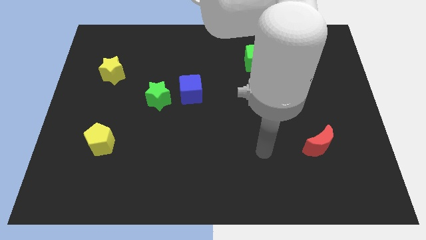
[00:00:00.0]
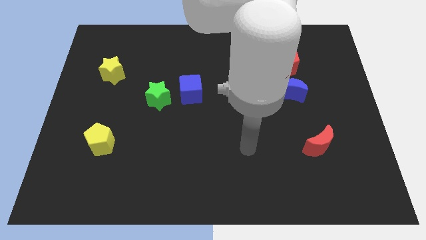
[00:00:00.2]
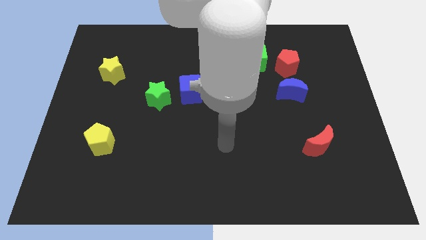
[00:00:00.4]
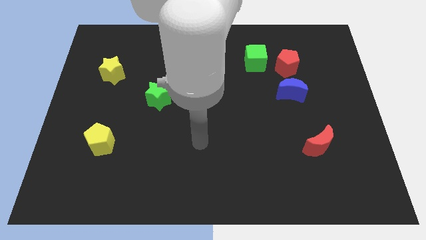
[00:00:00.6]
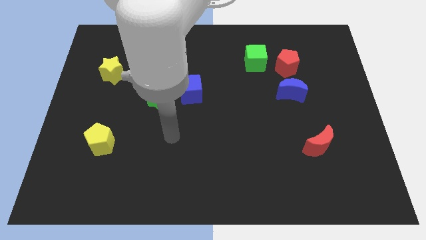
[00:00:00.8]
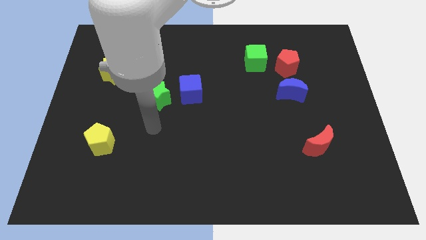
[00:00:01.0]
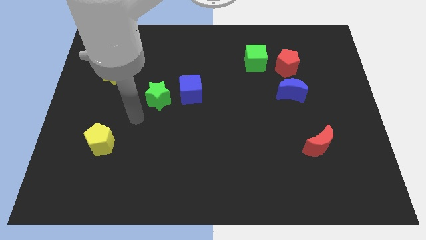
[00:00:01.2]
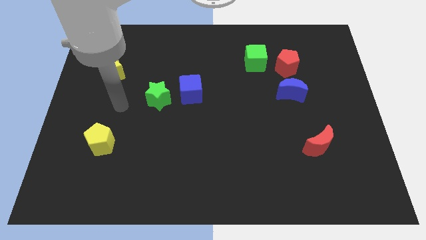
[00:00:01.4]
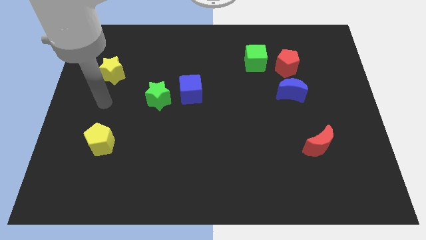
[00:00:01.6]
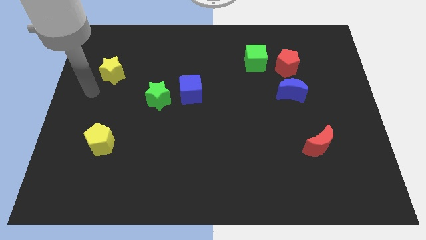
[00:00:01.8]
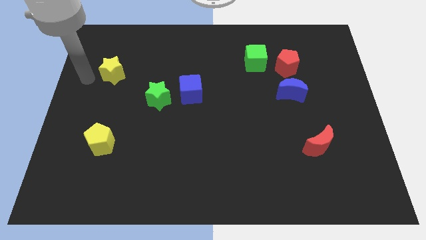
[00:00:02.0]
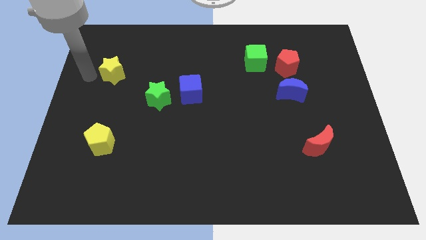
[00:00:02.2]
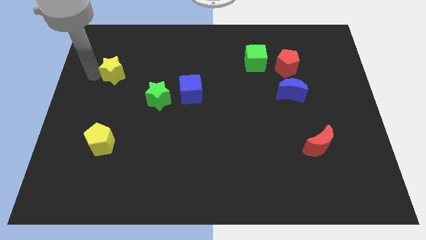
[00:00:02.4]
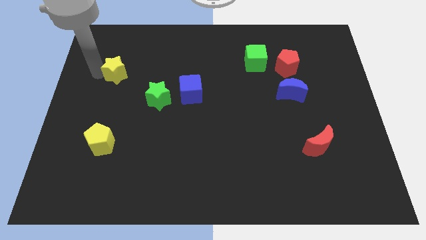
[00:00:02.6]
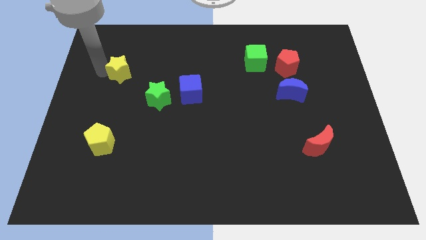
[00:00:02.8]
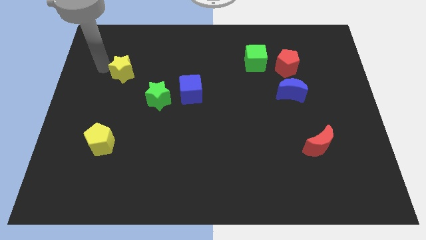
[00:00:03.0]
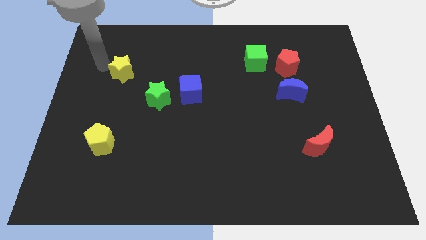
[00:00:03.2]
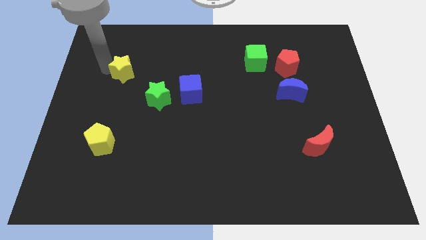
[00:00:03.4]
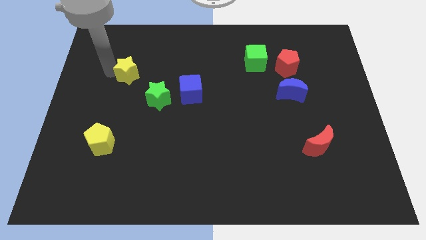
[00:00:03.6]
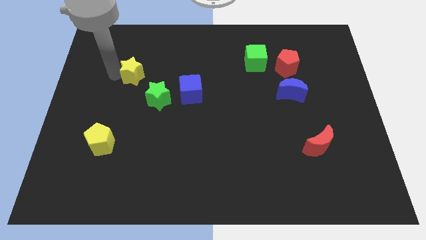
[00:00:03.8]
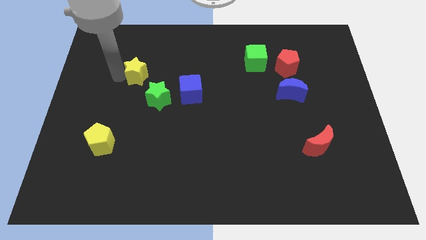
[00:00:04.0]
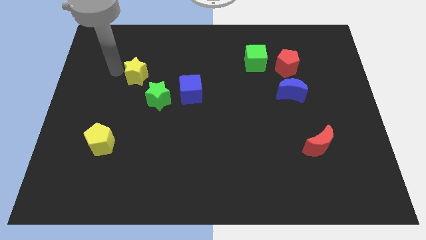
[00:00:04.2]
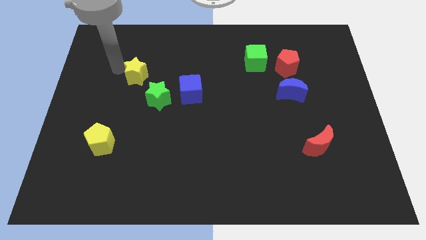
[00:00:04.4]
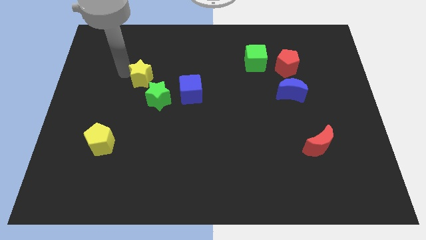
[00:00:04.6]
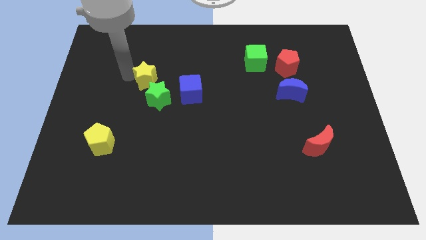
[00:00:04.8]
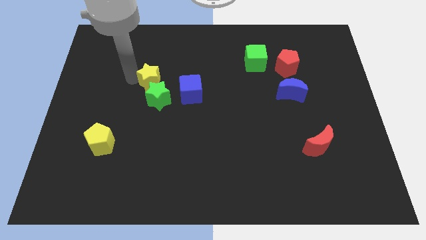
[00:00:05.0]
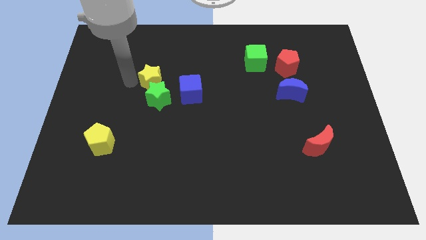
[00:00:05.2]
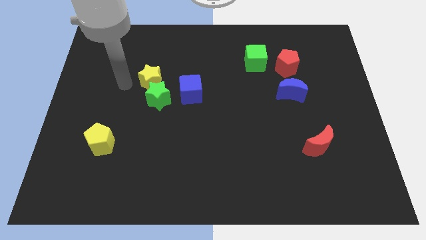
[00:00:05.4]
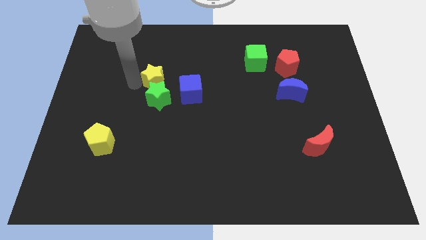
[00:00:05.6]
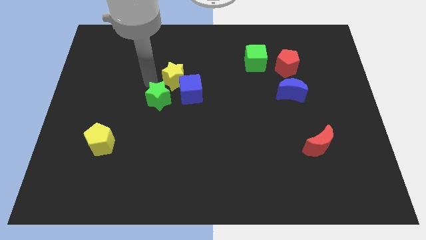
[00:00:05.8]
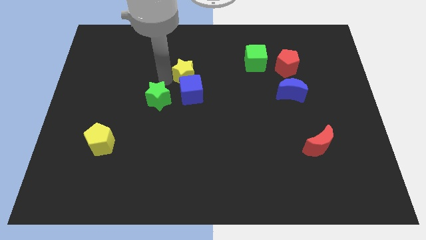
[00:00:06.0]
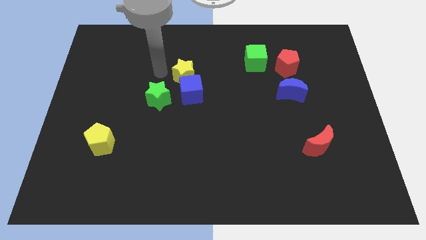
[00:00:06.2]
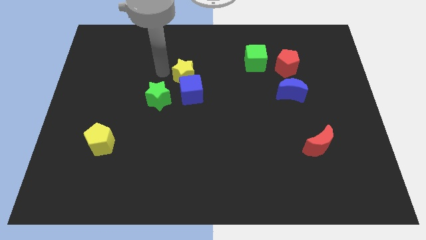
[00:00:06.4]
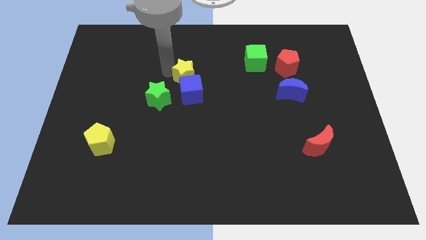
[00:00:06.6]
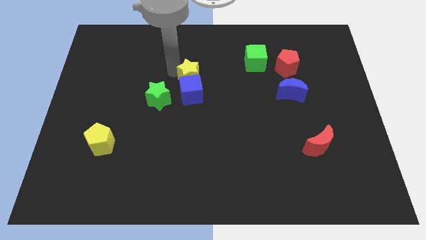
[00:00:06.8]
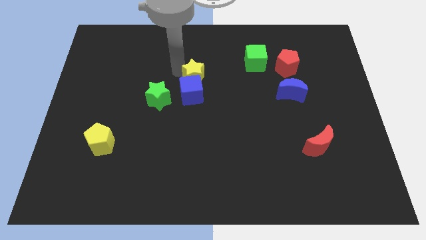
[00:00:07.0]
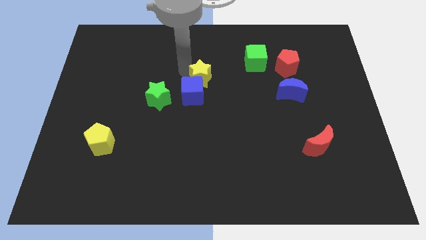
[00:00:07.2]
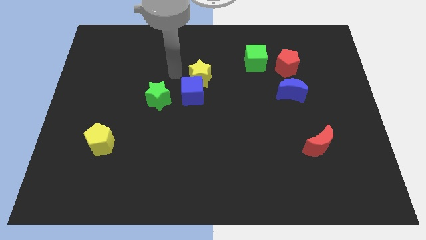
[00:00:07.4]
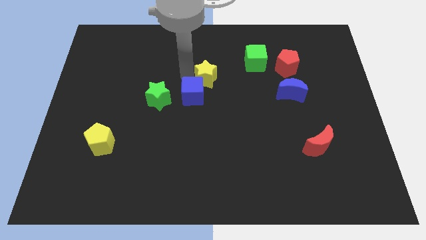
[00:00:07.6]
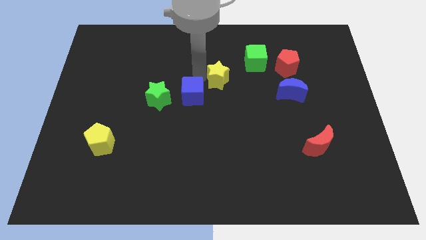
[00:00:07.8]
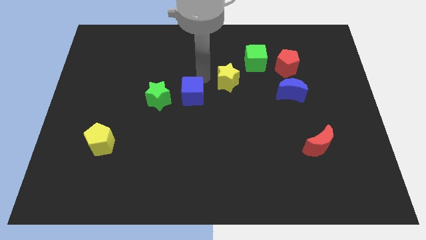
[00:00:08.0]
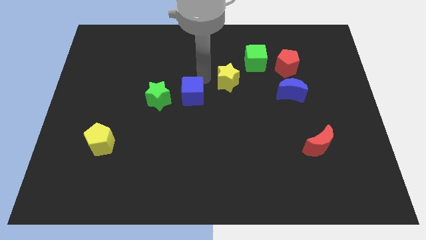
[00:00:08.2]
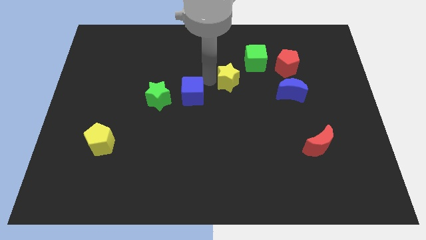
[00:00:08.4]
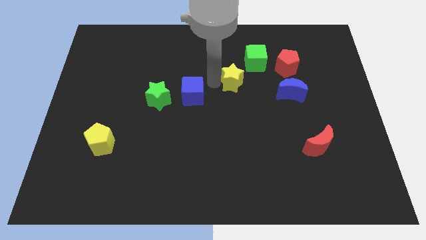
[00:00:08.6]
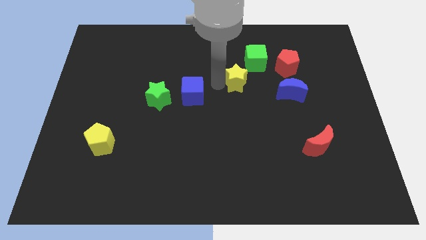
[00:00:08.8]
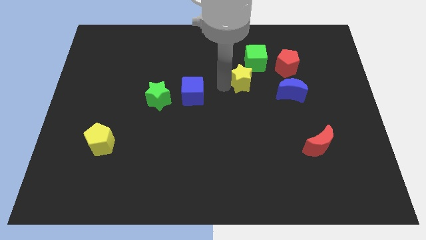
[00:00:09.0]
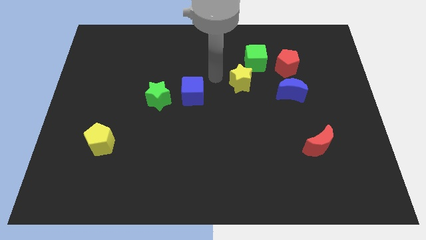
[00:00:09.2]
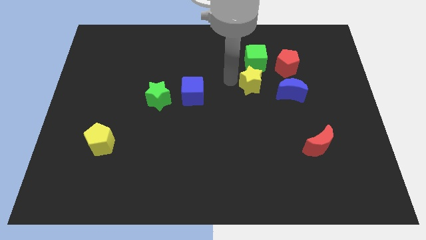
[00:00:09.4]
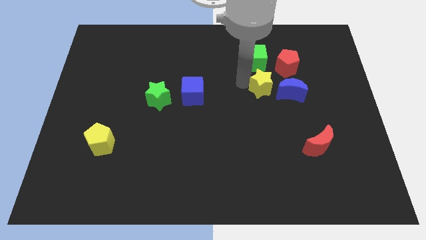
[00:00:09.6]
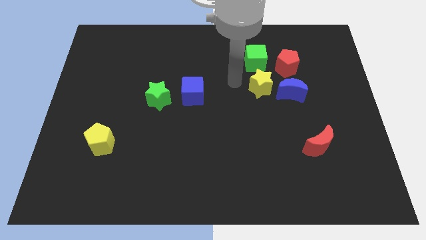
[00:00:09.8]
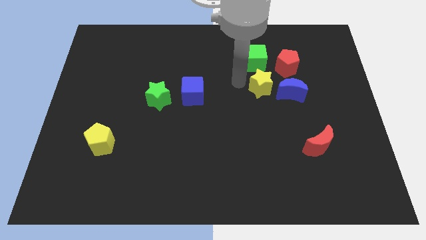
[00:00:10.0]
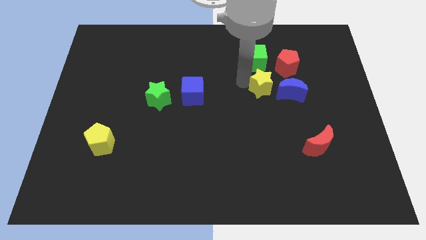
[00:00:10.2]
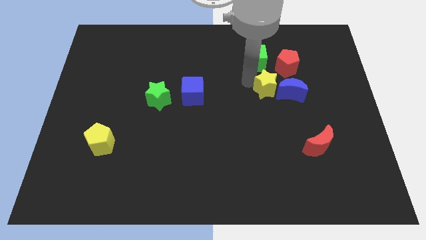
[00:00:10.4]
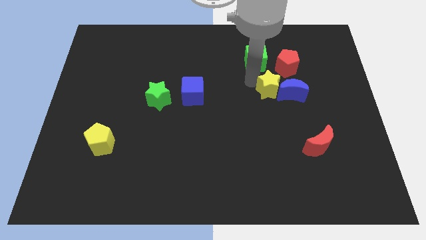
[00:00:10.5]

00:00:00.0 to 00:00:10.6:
push the yellow star next to the blue moon

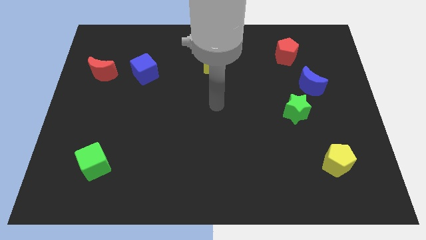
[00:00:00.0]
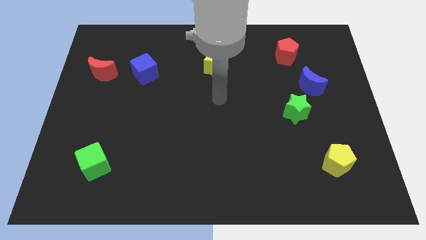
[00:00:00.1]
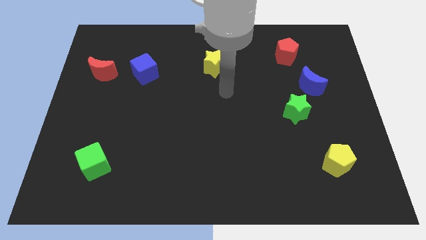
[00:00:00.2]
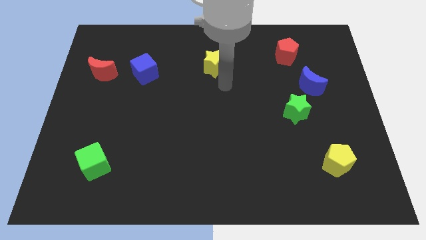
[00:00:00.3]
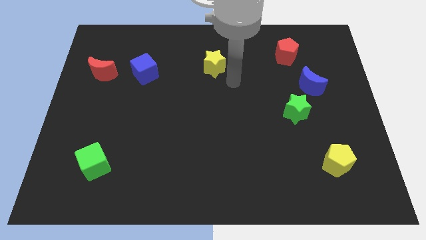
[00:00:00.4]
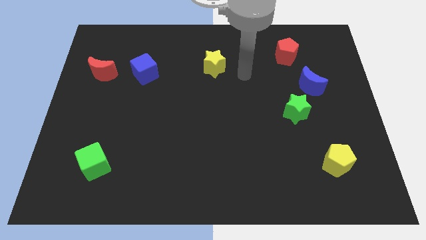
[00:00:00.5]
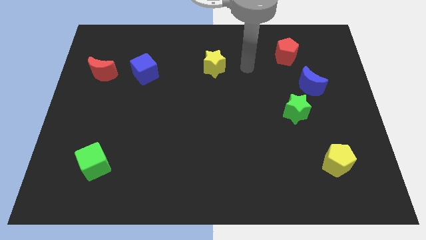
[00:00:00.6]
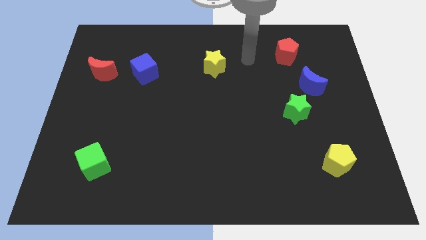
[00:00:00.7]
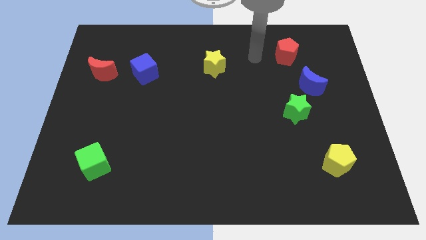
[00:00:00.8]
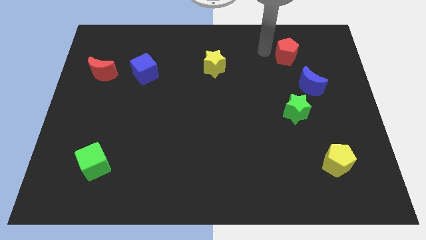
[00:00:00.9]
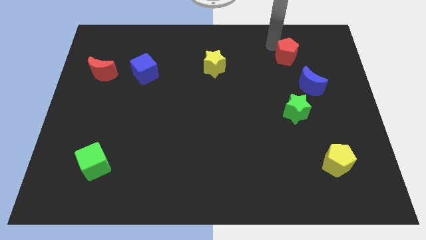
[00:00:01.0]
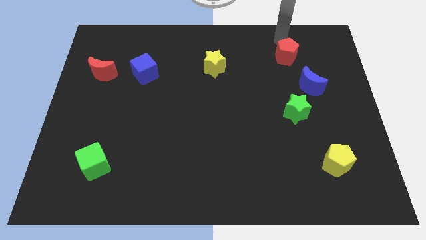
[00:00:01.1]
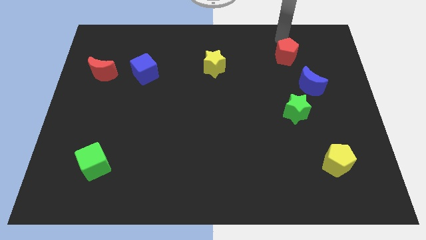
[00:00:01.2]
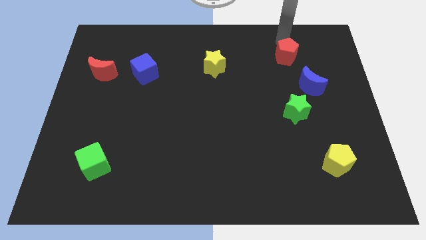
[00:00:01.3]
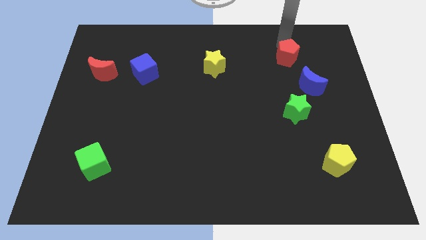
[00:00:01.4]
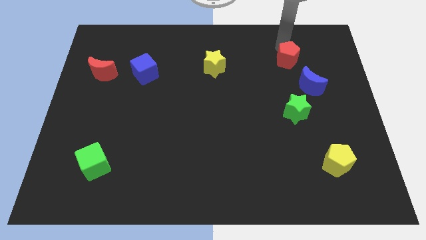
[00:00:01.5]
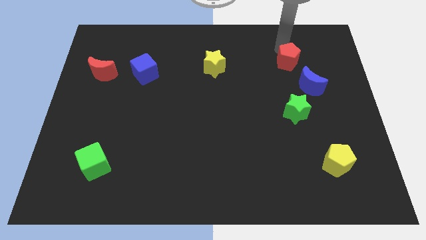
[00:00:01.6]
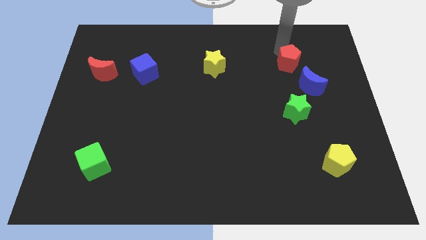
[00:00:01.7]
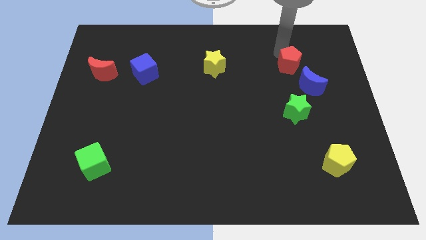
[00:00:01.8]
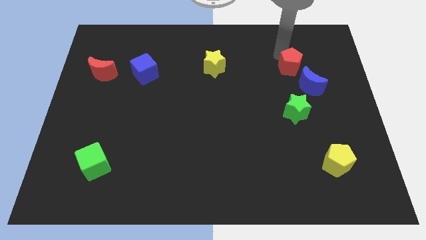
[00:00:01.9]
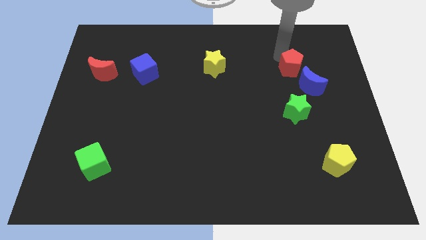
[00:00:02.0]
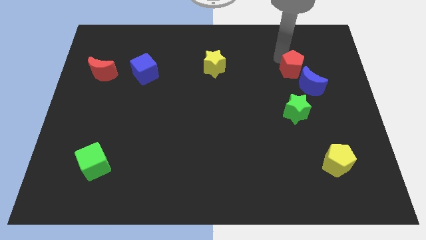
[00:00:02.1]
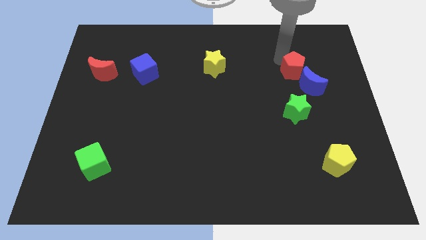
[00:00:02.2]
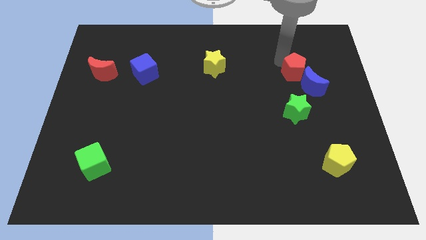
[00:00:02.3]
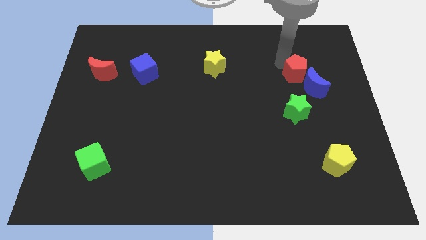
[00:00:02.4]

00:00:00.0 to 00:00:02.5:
push the red pentagon towards the blue moon
